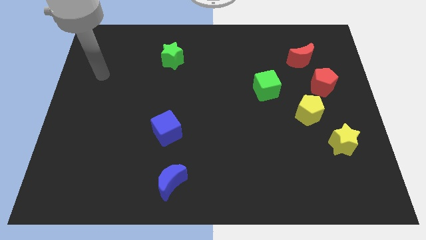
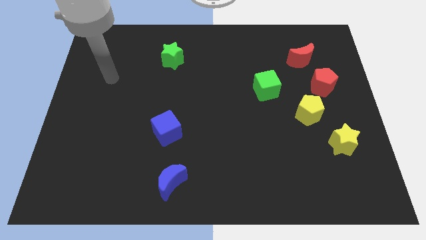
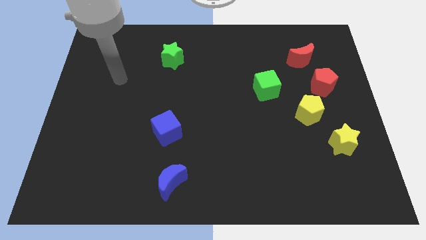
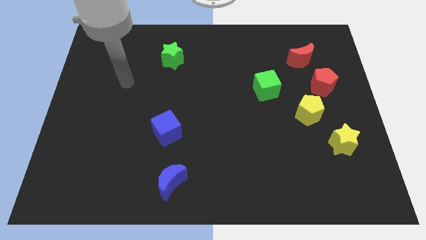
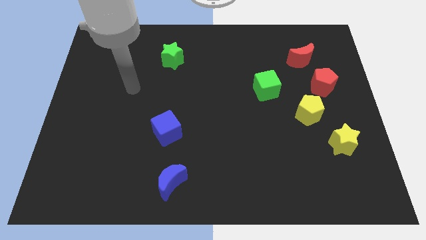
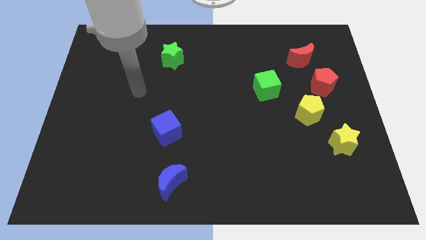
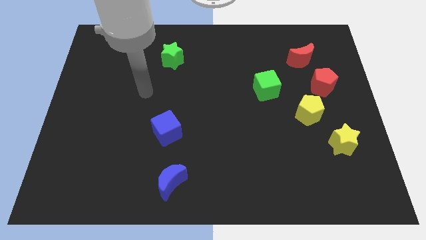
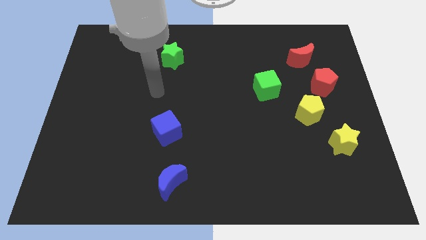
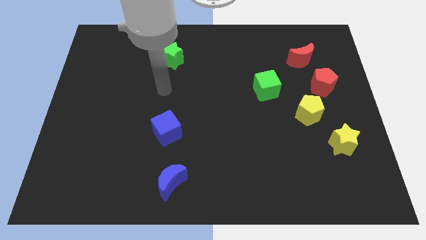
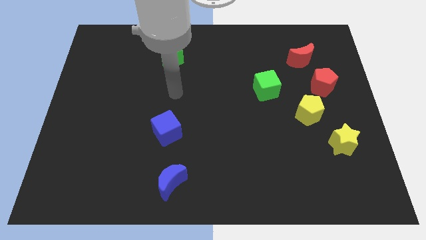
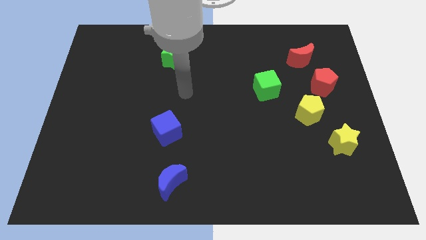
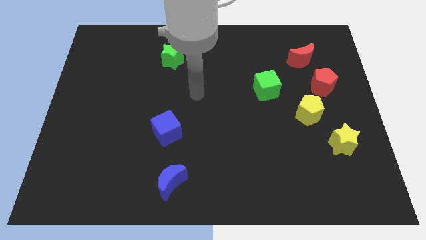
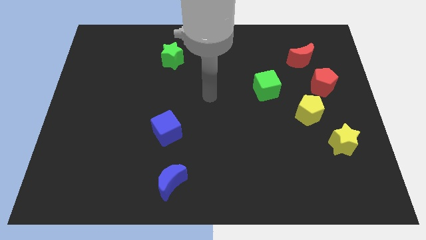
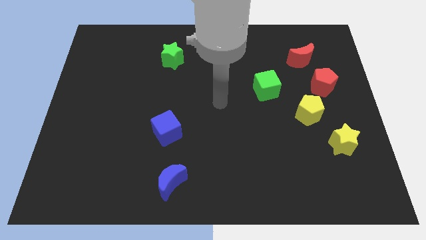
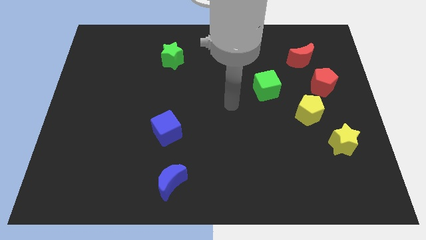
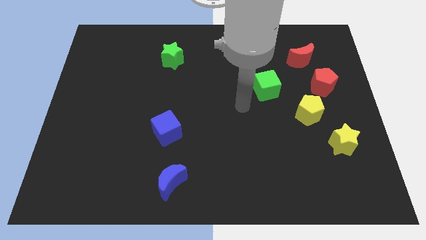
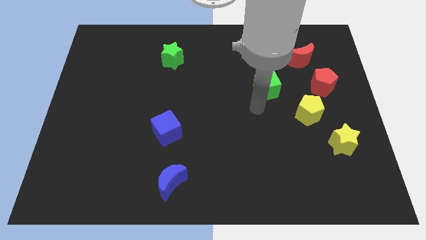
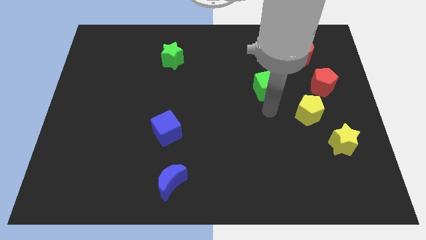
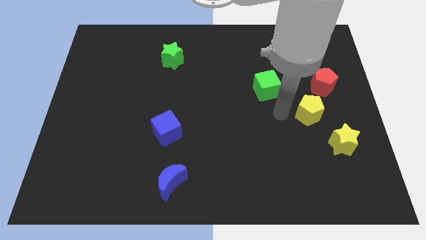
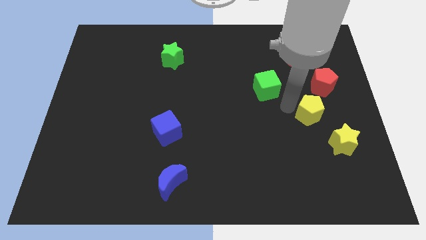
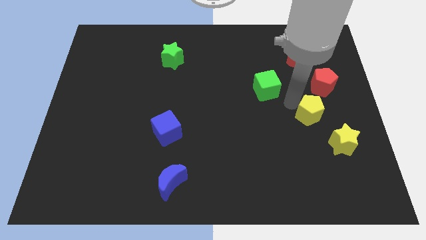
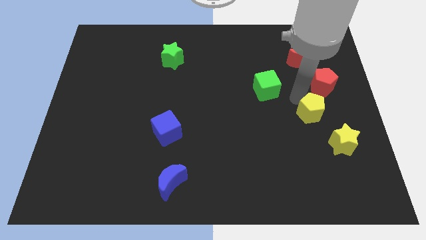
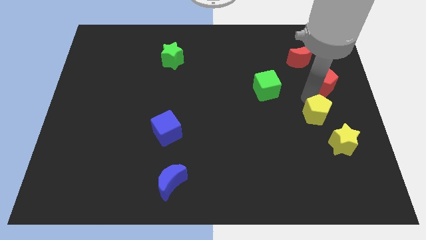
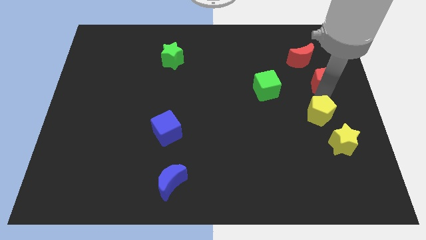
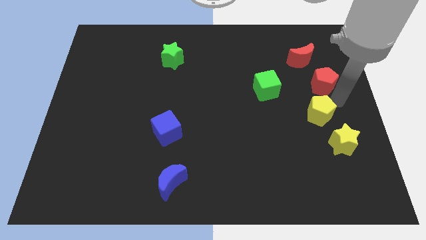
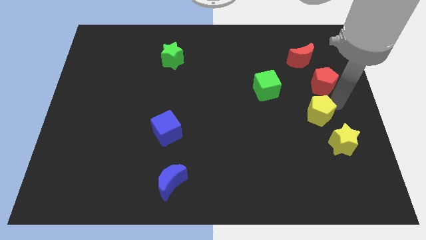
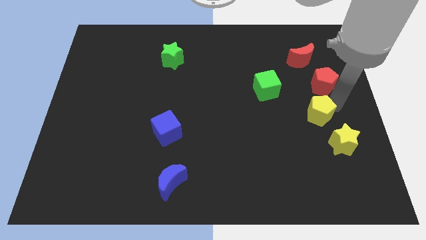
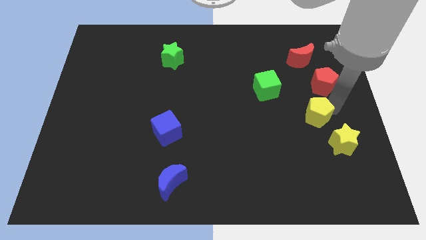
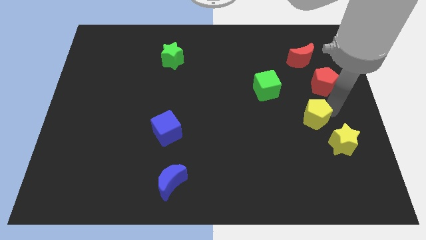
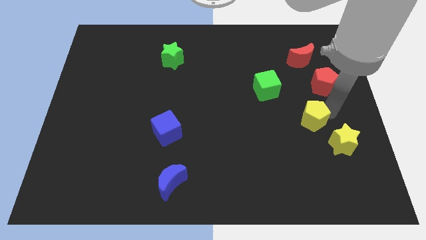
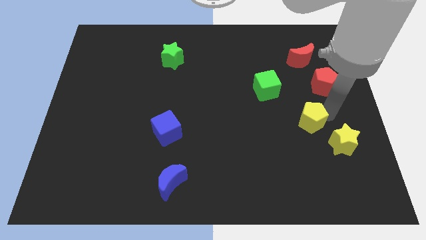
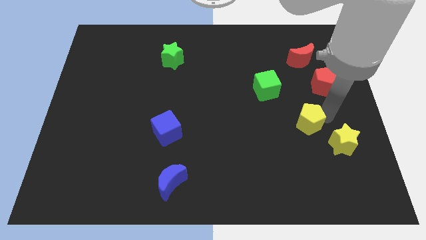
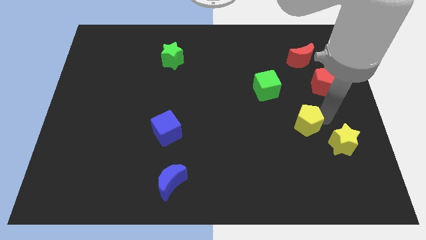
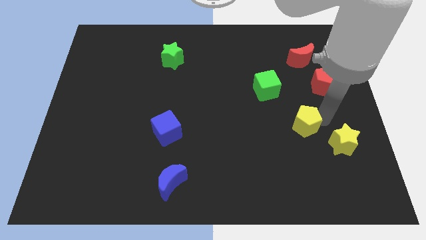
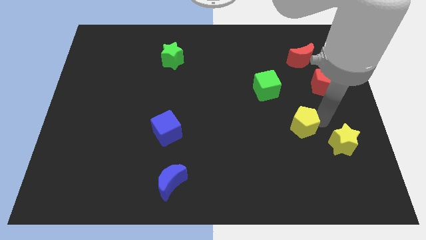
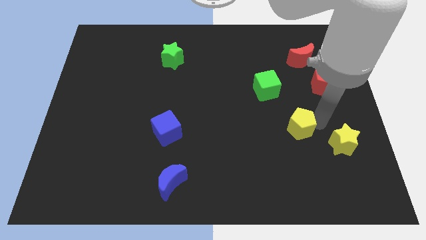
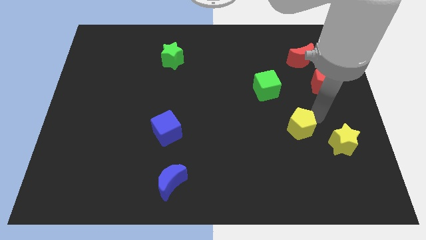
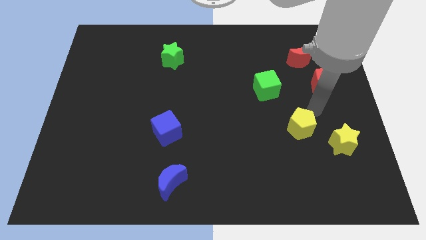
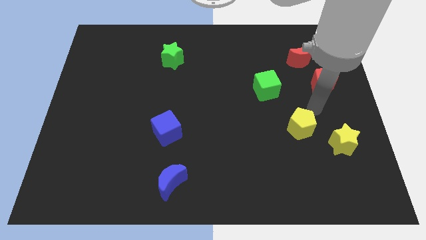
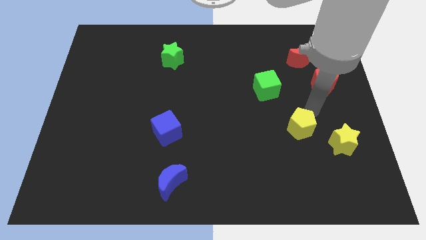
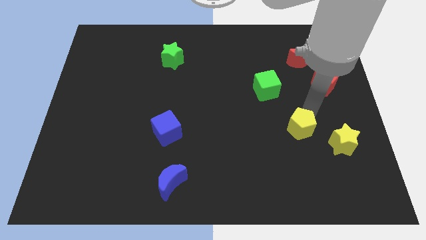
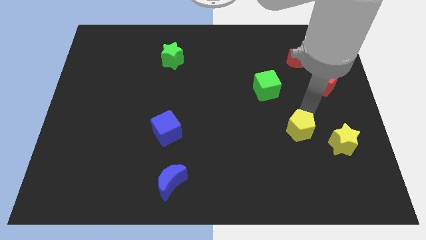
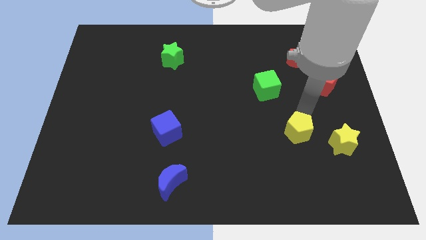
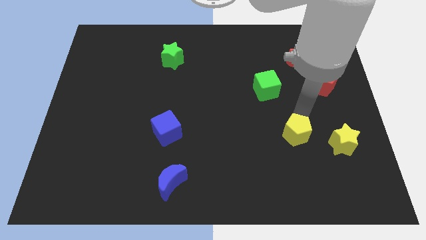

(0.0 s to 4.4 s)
push the yellow pentagon slightly down and then left

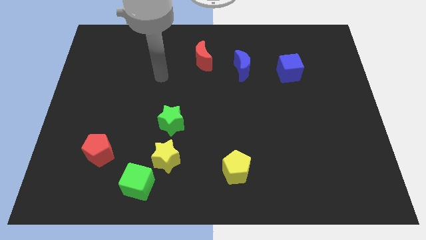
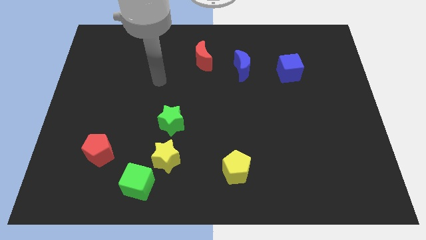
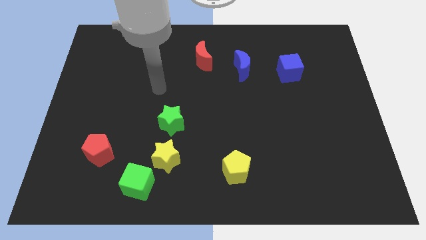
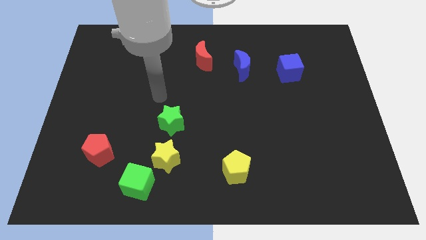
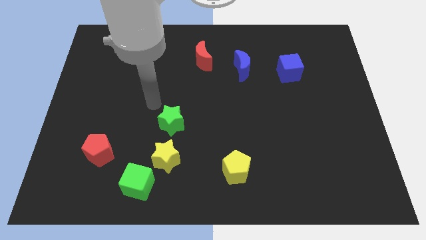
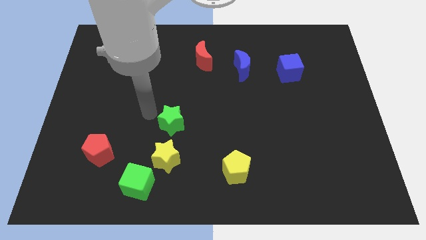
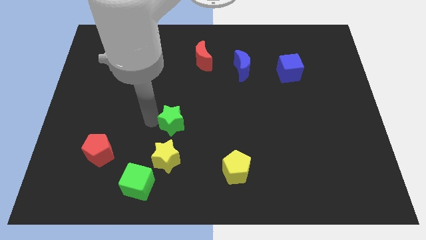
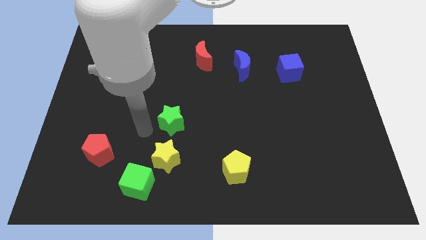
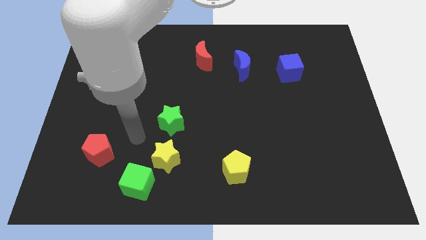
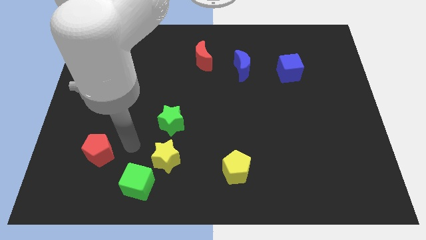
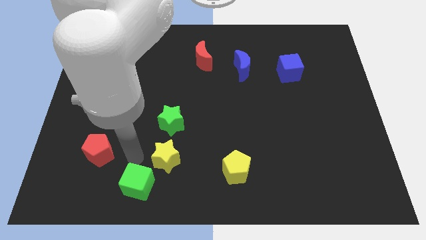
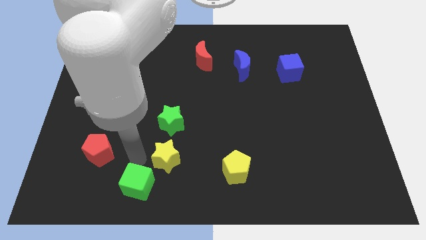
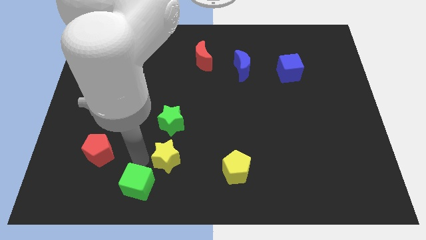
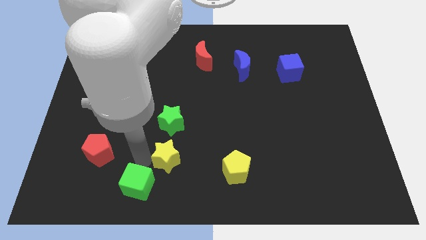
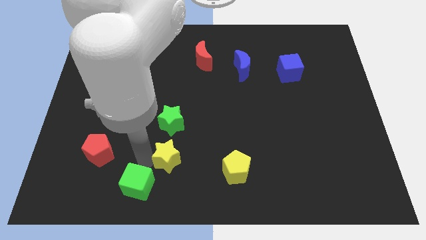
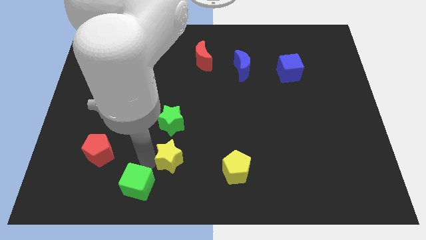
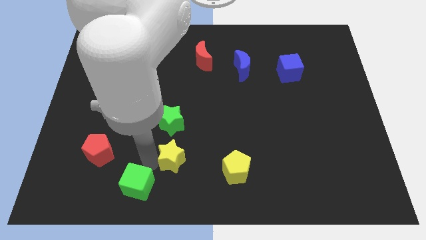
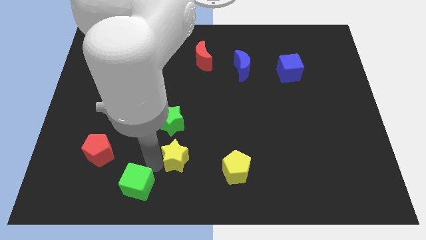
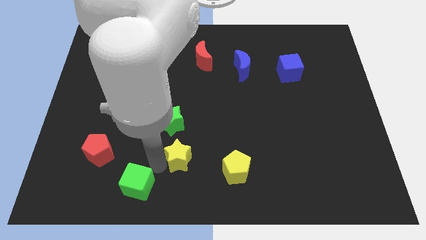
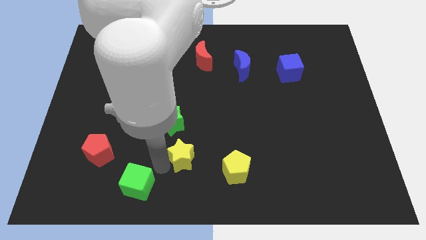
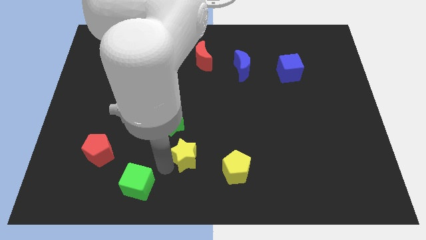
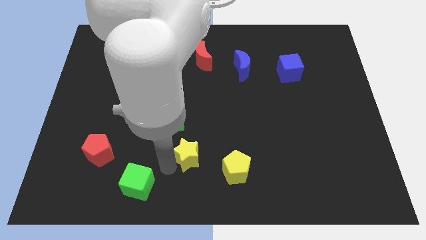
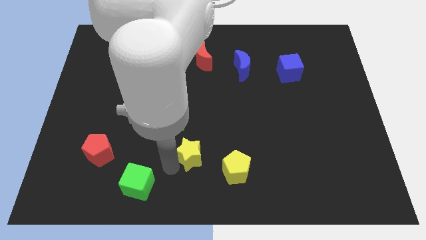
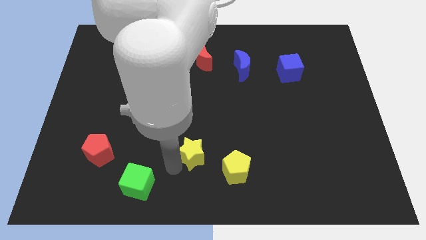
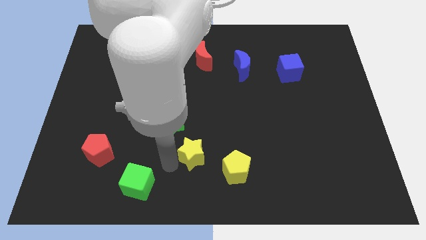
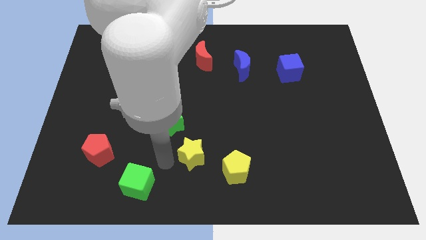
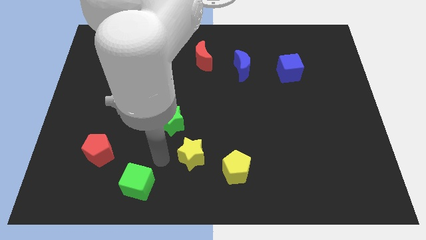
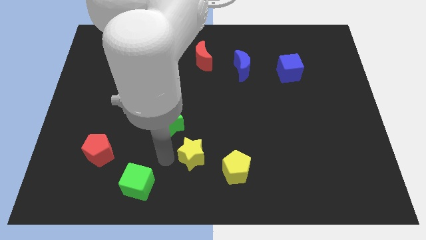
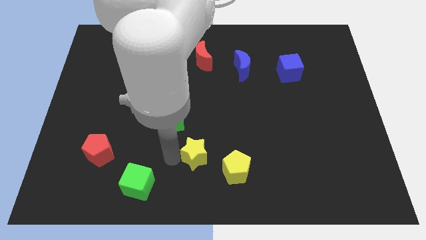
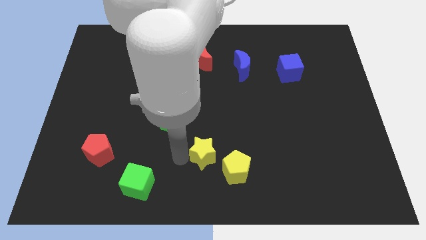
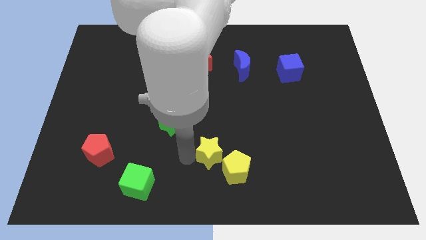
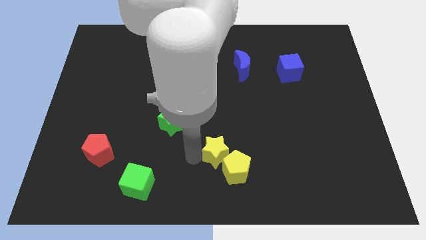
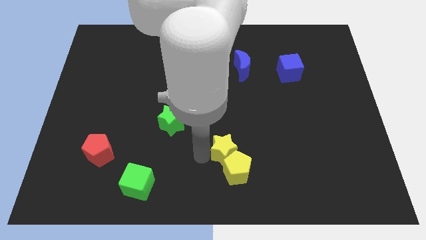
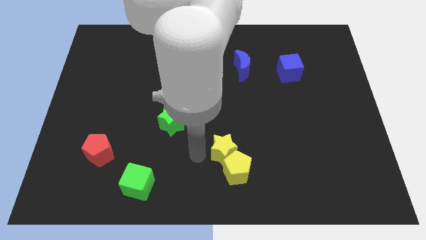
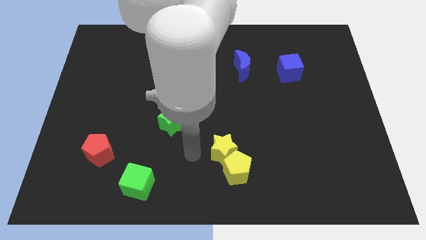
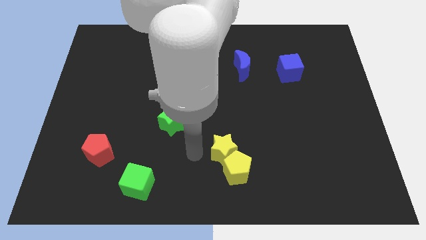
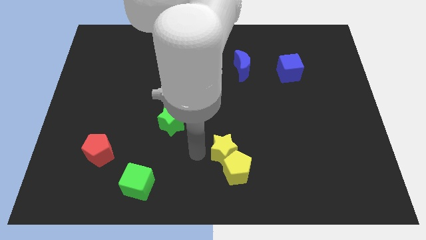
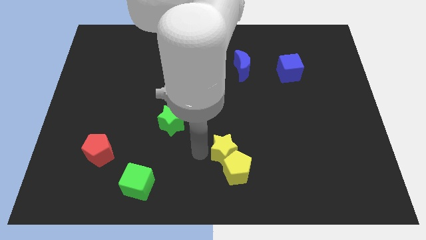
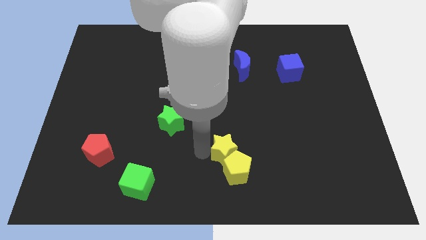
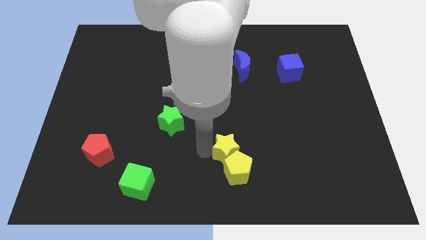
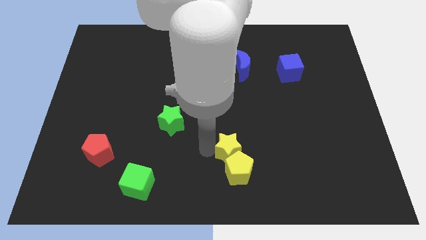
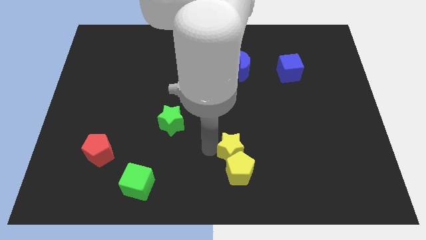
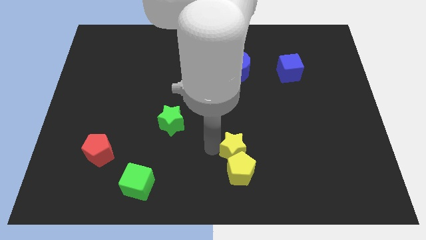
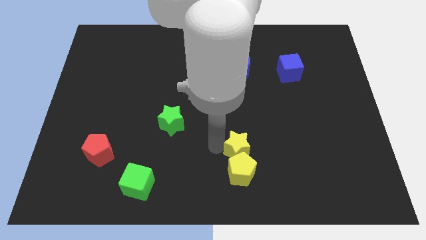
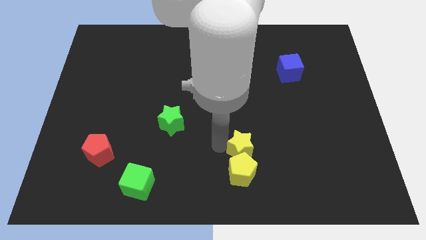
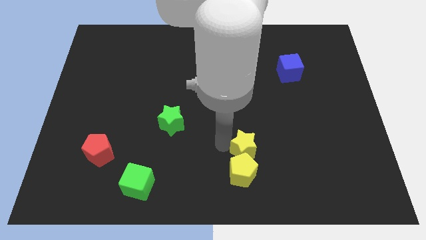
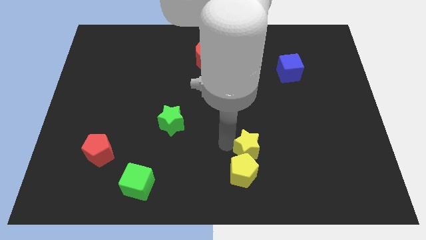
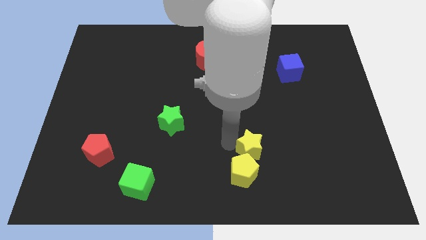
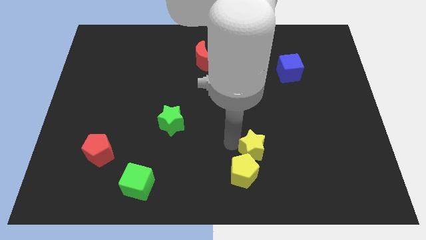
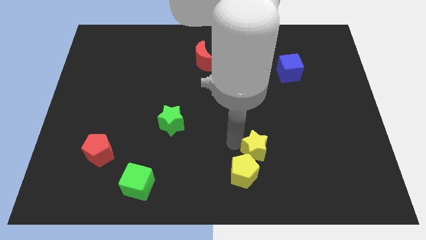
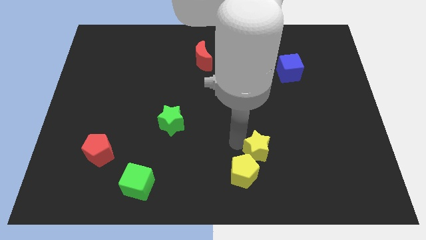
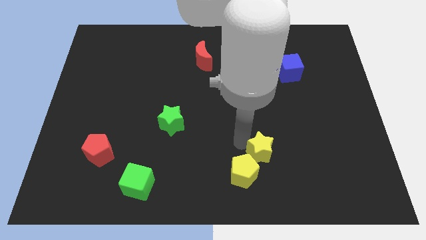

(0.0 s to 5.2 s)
move the yellow star right
